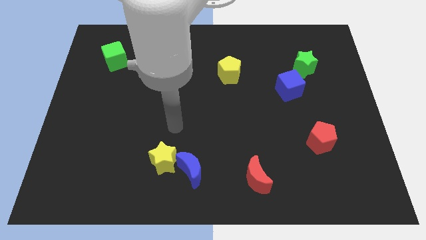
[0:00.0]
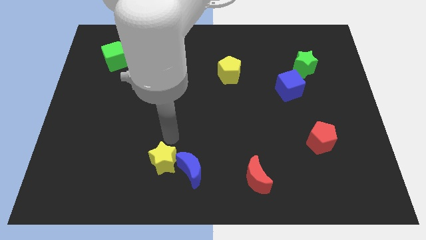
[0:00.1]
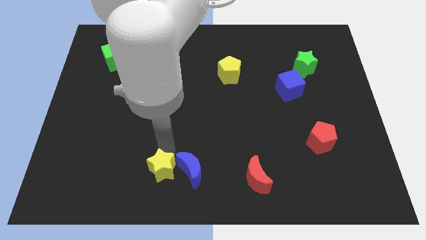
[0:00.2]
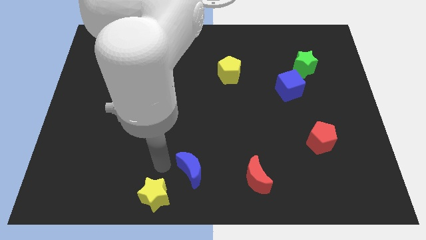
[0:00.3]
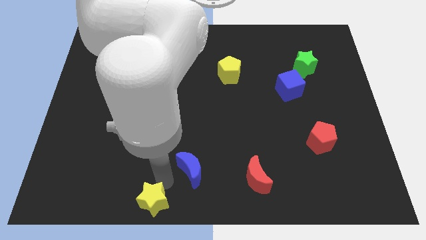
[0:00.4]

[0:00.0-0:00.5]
move the blue moon away from the yellow star

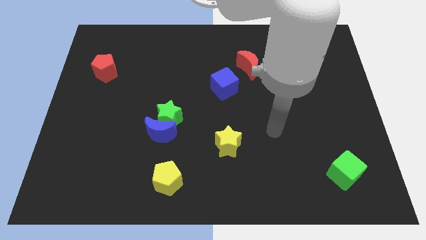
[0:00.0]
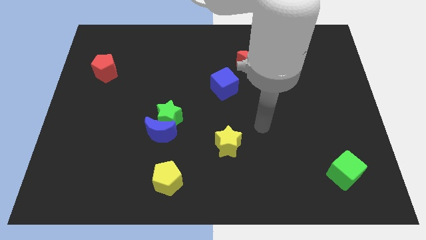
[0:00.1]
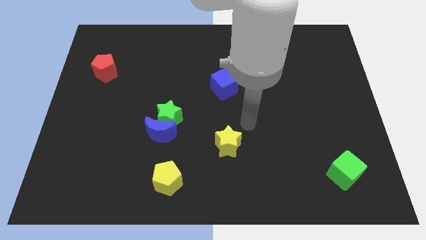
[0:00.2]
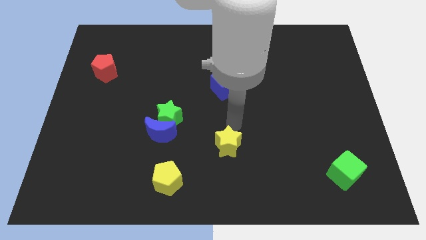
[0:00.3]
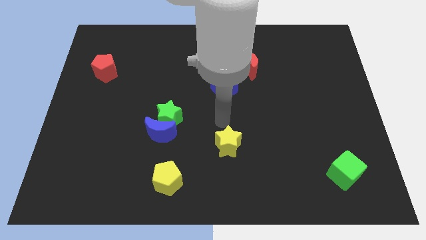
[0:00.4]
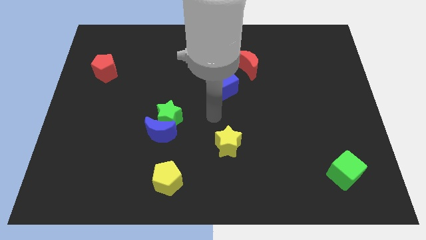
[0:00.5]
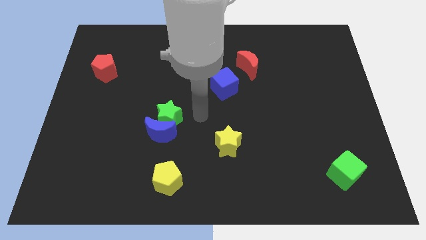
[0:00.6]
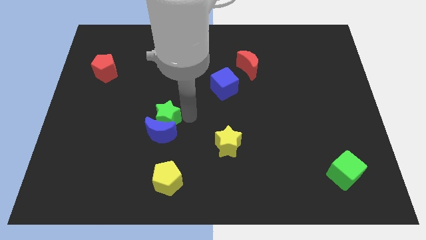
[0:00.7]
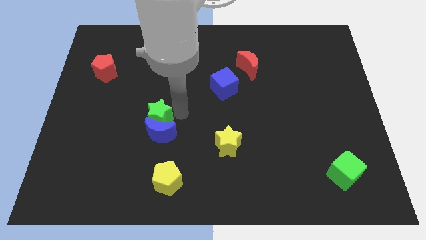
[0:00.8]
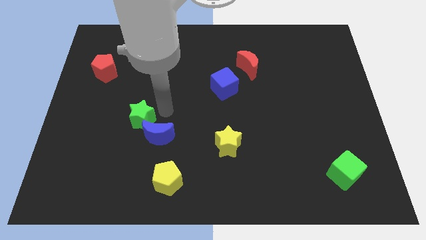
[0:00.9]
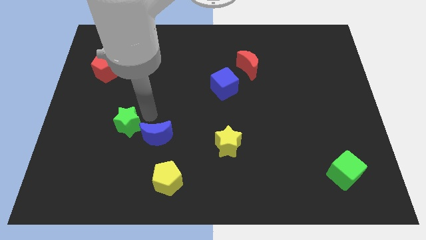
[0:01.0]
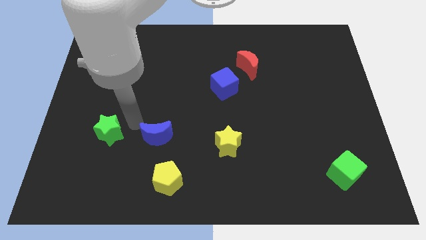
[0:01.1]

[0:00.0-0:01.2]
pull the blue moon apart from the green star

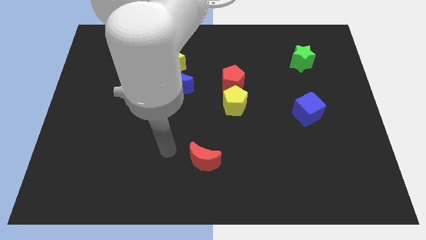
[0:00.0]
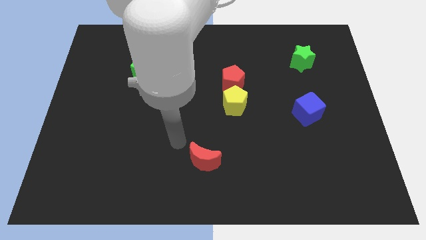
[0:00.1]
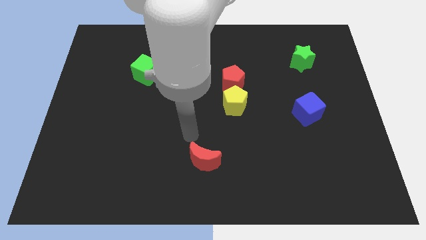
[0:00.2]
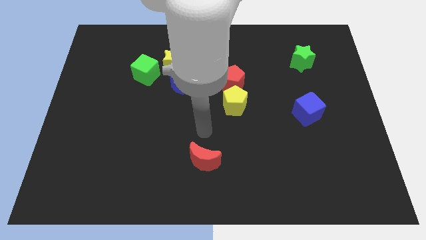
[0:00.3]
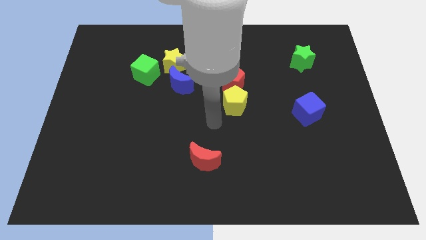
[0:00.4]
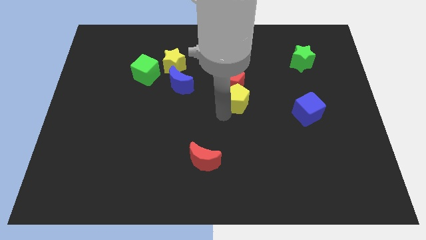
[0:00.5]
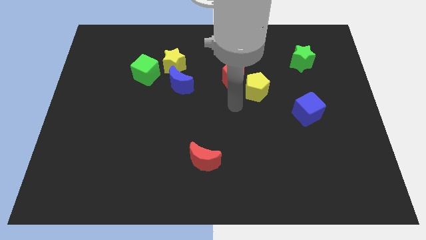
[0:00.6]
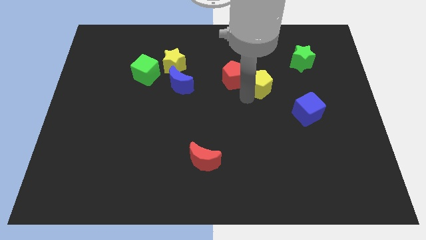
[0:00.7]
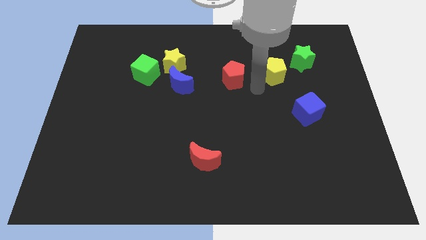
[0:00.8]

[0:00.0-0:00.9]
separate the red pentagon from the yellow pentagon

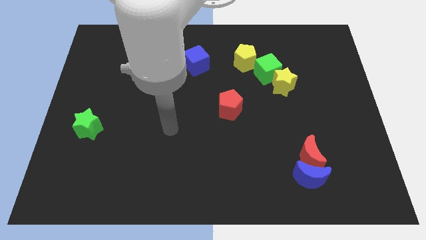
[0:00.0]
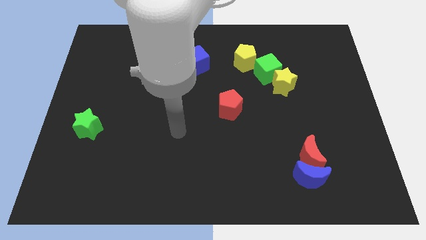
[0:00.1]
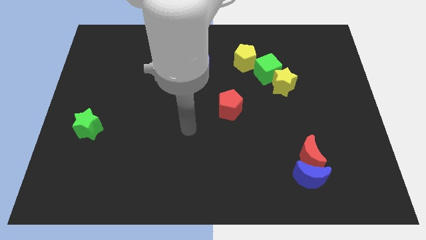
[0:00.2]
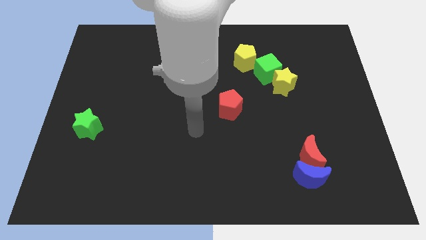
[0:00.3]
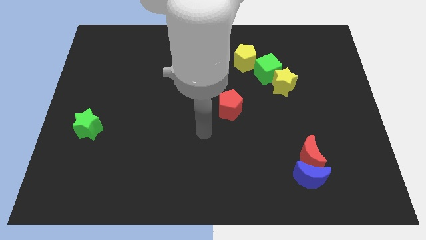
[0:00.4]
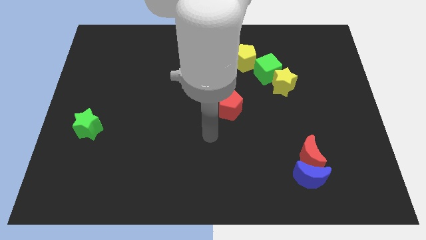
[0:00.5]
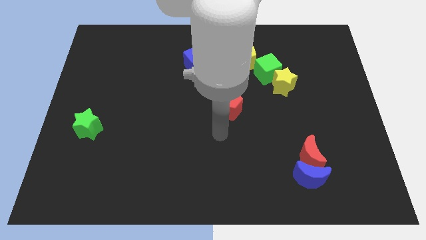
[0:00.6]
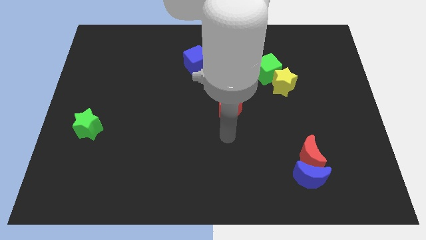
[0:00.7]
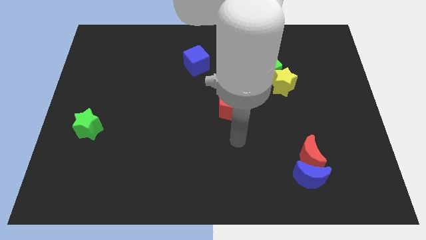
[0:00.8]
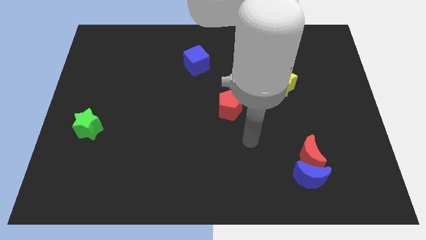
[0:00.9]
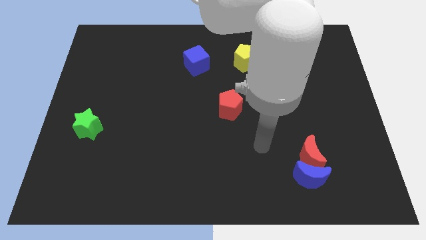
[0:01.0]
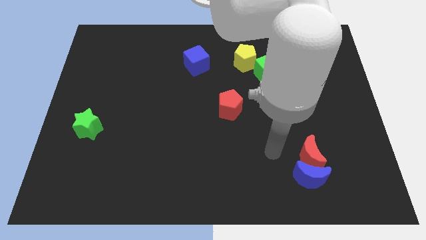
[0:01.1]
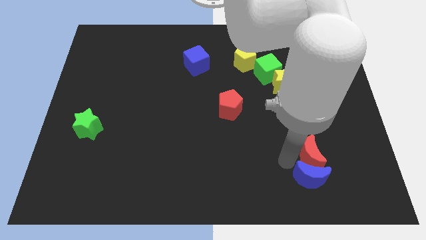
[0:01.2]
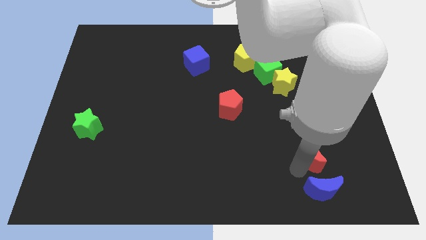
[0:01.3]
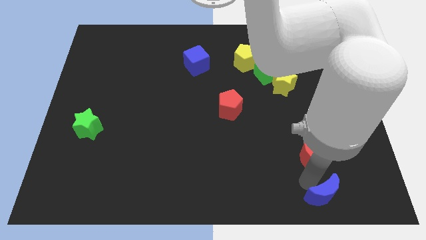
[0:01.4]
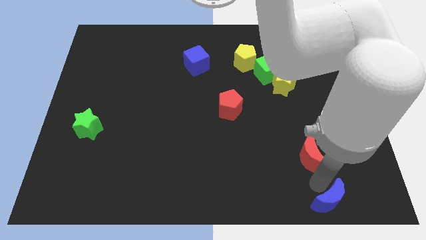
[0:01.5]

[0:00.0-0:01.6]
move the red moon away from the blue moon

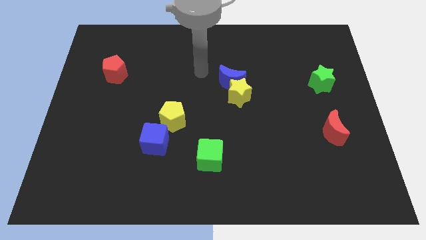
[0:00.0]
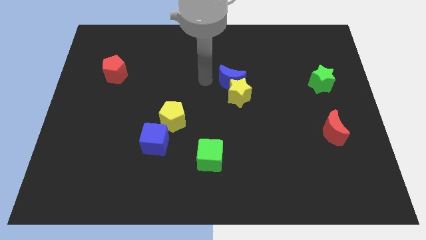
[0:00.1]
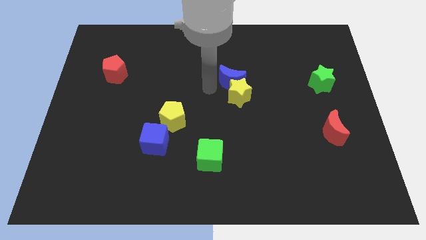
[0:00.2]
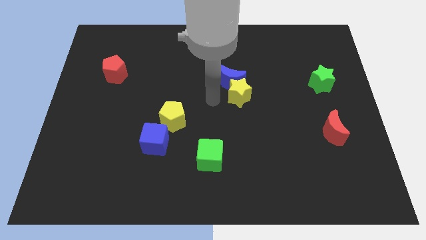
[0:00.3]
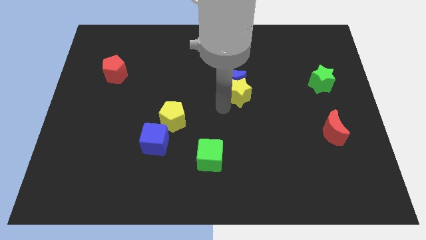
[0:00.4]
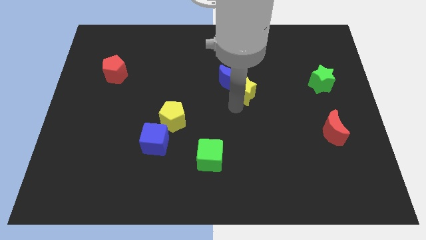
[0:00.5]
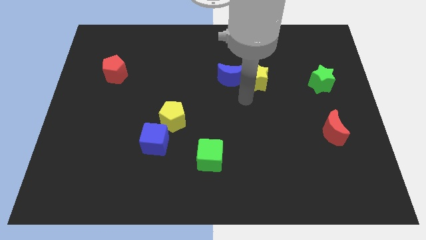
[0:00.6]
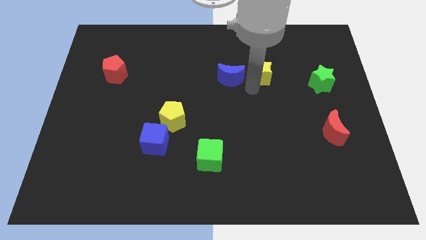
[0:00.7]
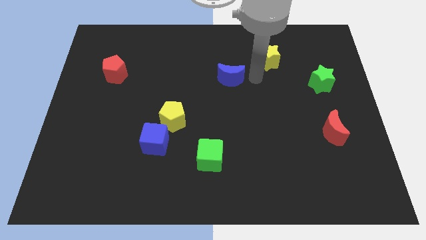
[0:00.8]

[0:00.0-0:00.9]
pull the blue moon apart from the yellow star

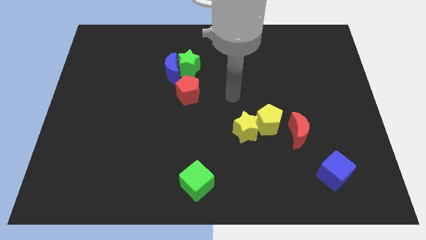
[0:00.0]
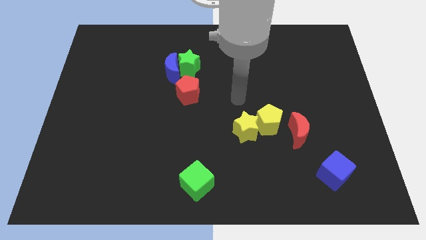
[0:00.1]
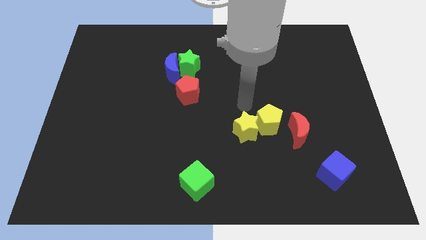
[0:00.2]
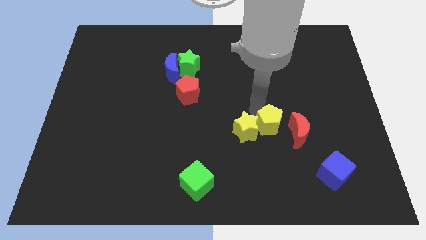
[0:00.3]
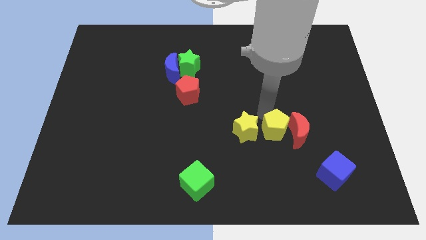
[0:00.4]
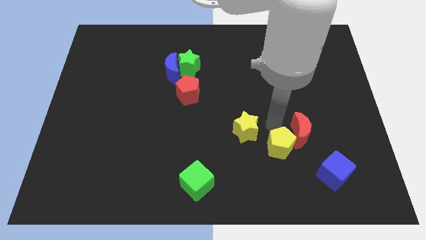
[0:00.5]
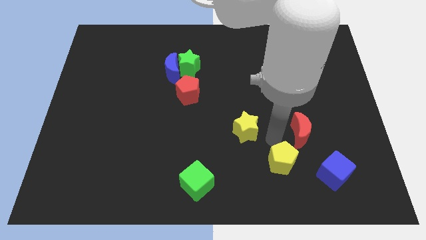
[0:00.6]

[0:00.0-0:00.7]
pull the yellow star apart from the yellow pentagon

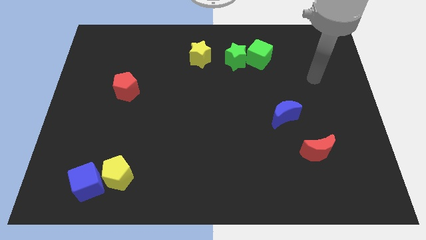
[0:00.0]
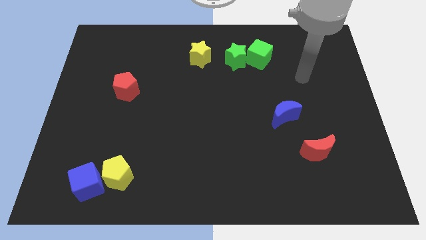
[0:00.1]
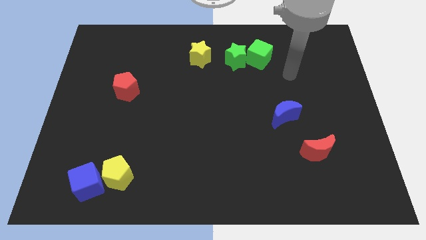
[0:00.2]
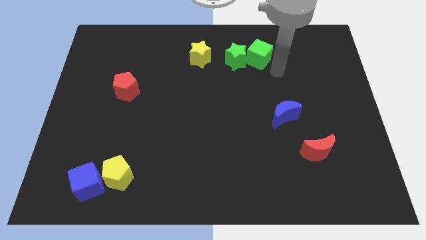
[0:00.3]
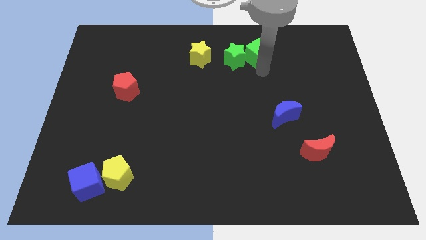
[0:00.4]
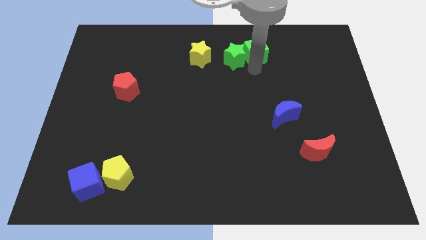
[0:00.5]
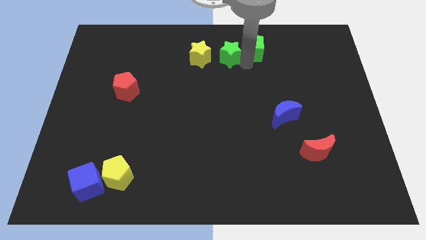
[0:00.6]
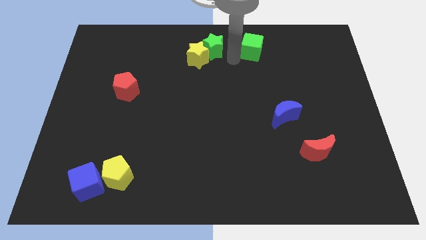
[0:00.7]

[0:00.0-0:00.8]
pull the green cube apart from the green star

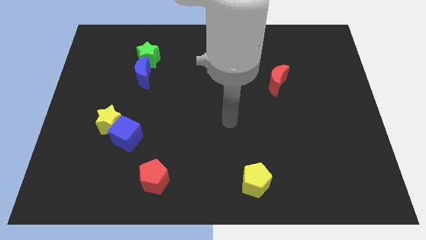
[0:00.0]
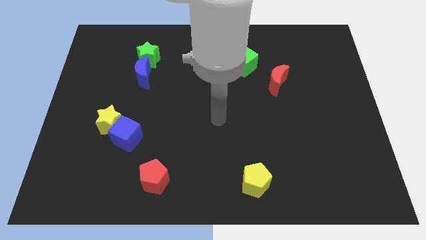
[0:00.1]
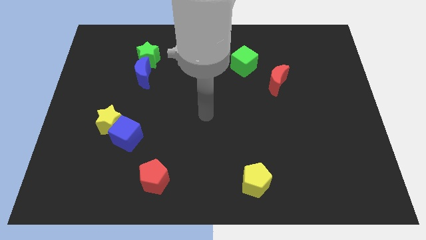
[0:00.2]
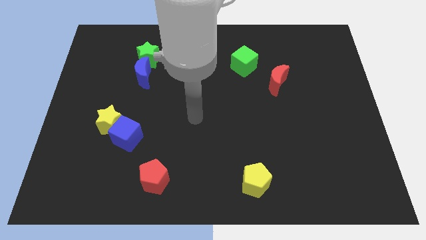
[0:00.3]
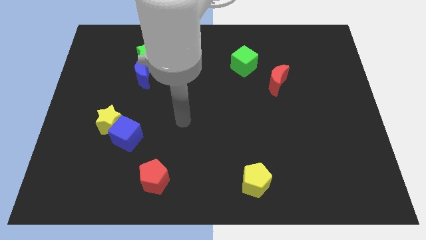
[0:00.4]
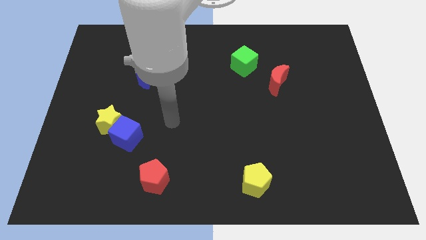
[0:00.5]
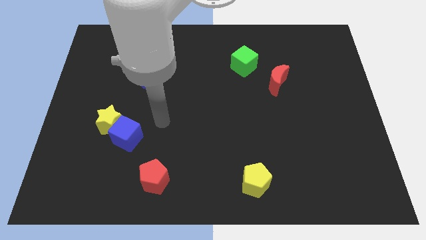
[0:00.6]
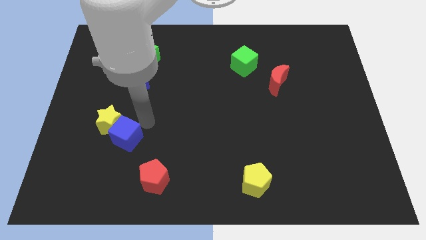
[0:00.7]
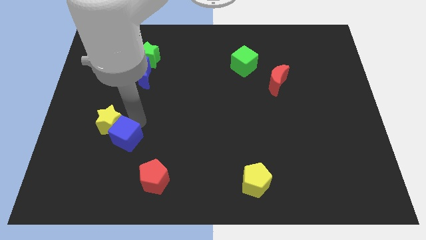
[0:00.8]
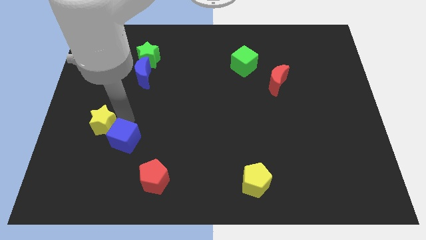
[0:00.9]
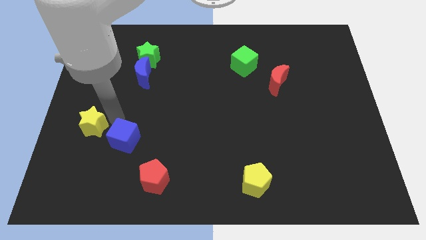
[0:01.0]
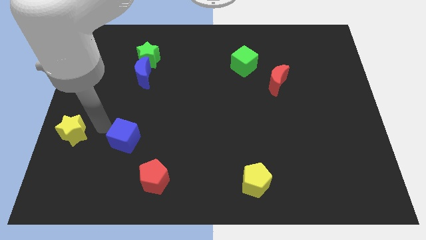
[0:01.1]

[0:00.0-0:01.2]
pull the blue cube apart from the yellow star

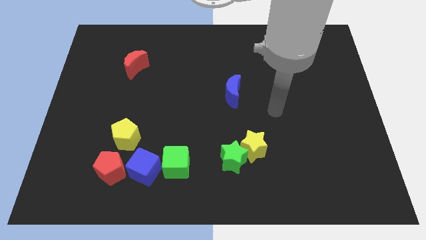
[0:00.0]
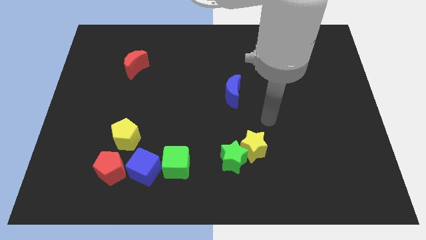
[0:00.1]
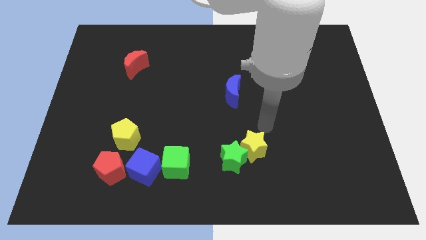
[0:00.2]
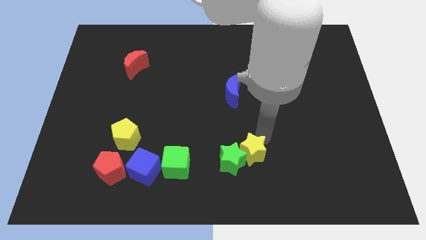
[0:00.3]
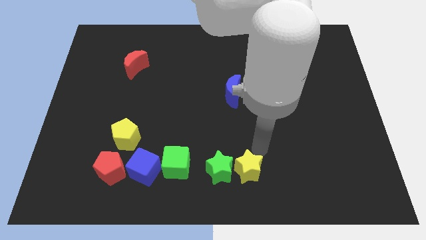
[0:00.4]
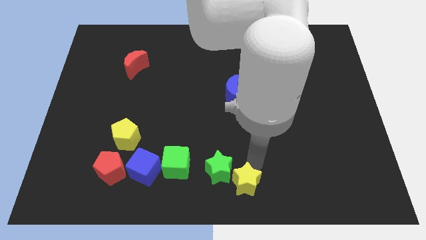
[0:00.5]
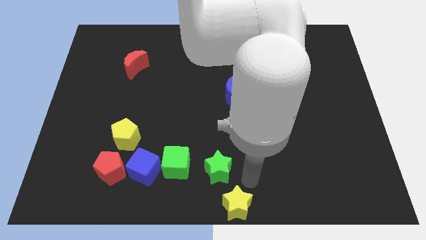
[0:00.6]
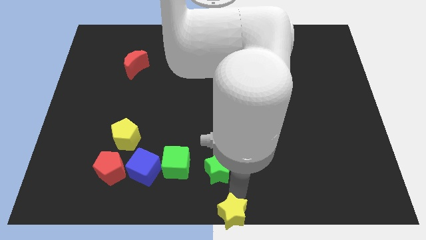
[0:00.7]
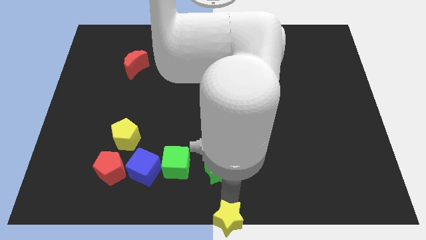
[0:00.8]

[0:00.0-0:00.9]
pull the green star apart from the yellow star

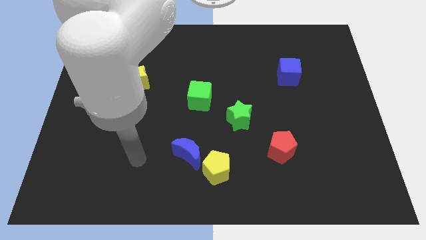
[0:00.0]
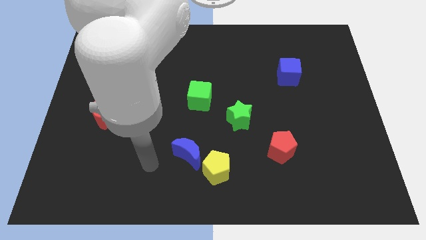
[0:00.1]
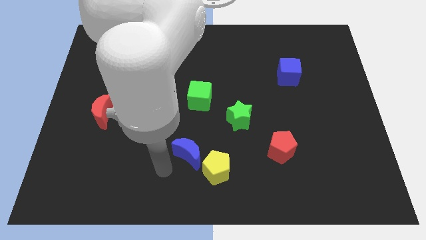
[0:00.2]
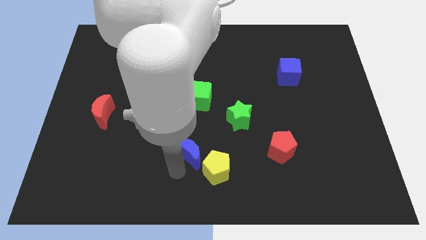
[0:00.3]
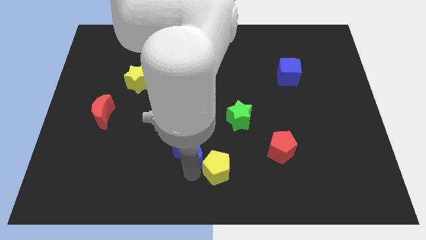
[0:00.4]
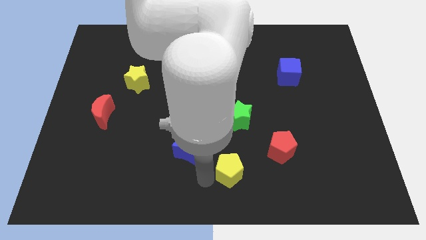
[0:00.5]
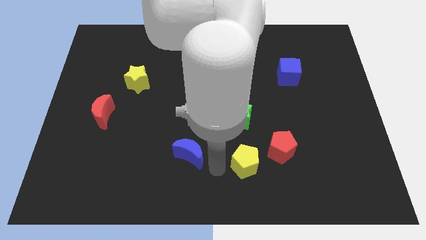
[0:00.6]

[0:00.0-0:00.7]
pull the blue moon apart from the yellow pentagon
